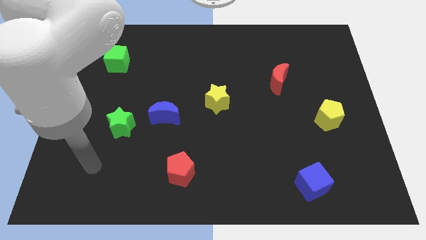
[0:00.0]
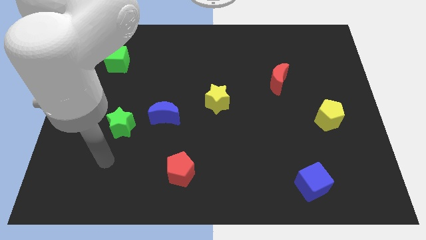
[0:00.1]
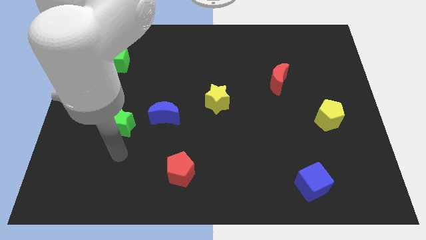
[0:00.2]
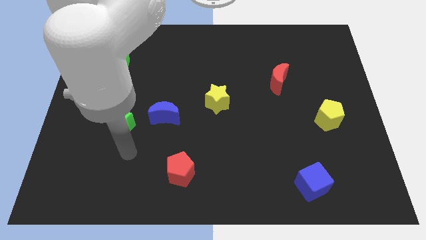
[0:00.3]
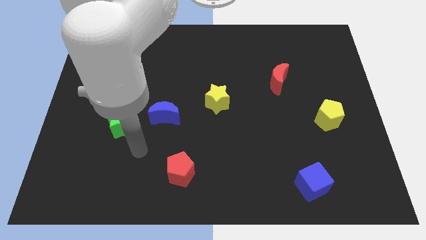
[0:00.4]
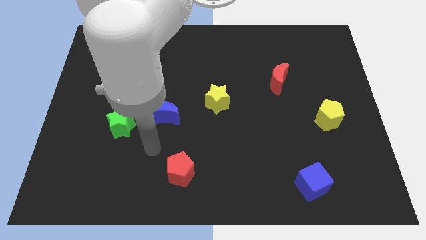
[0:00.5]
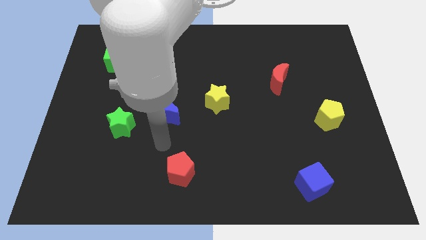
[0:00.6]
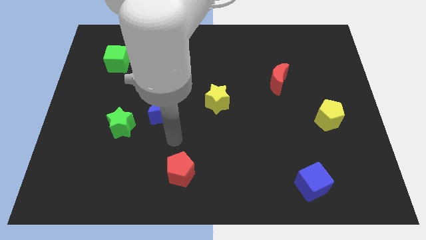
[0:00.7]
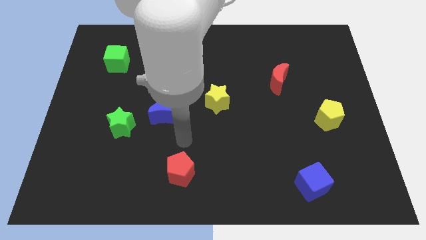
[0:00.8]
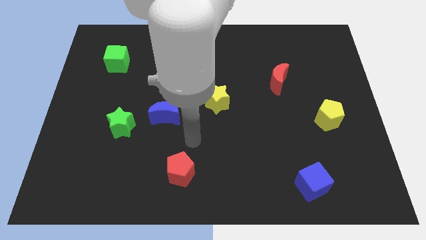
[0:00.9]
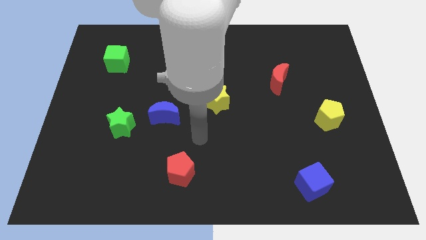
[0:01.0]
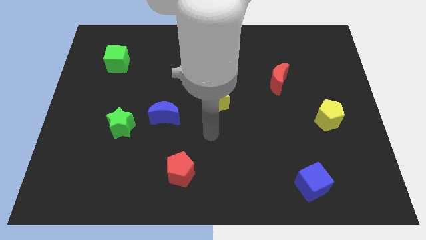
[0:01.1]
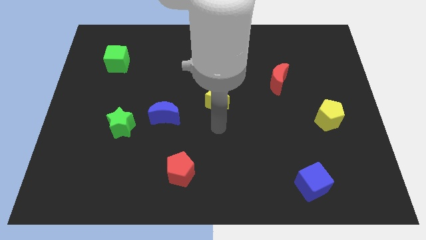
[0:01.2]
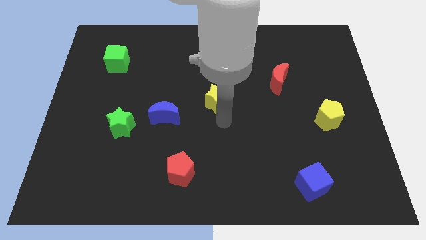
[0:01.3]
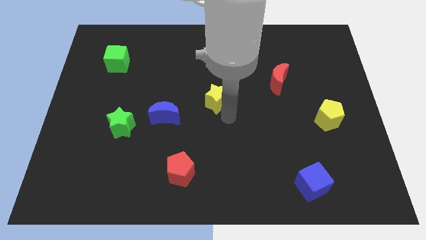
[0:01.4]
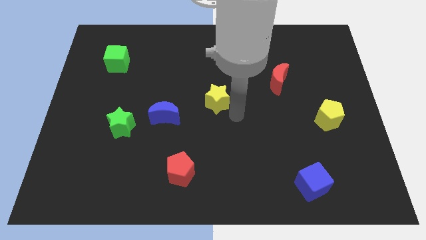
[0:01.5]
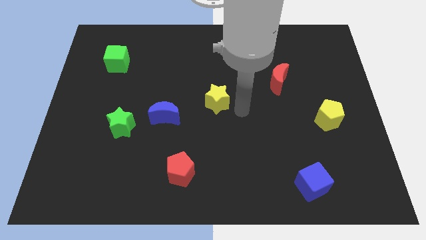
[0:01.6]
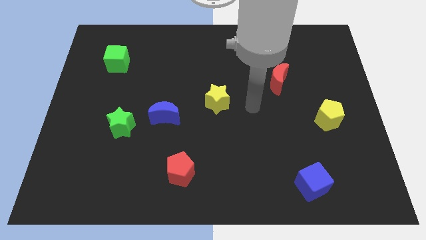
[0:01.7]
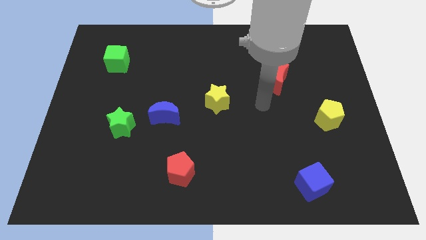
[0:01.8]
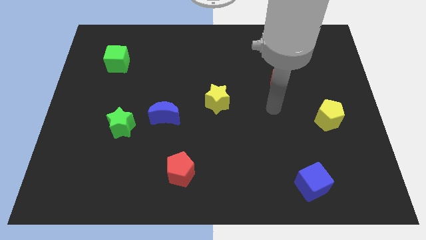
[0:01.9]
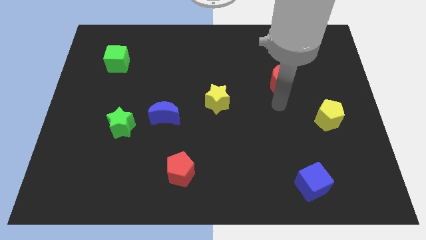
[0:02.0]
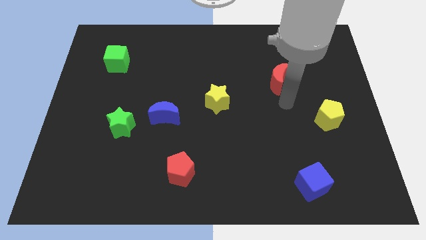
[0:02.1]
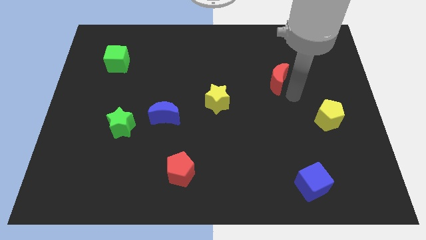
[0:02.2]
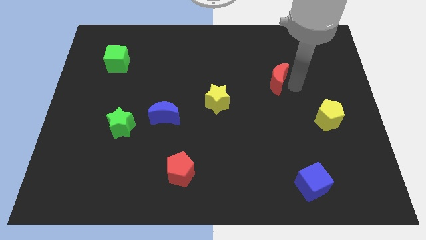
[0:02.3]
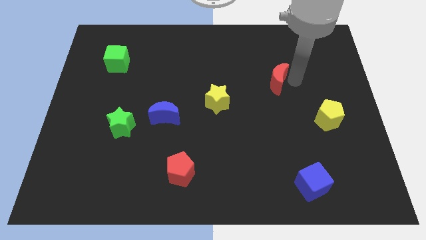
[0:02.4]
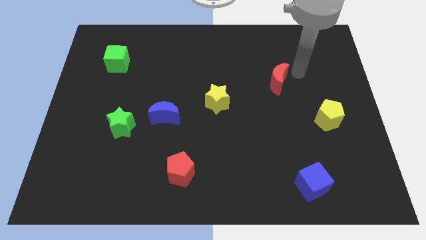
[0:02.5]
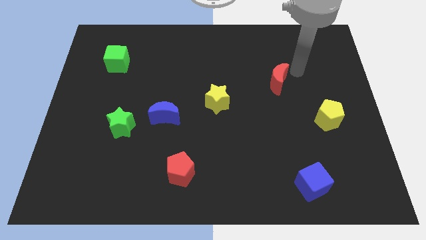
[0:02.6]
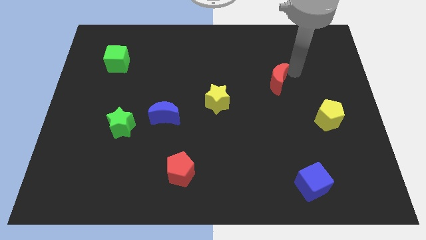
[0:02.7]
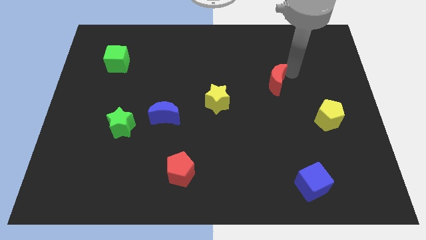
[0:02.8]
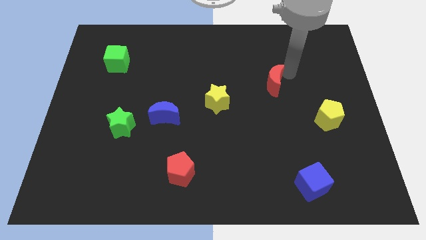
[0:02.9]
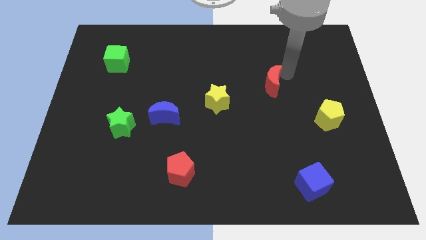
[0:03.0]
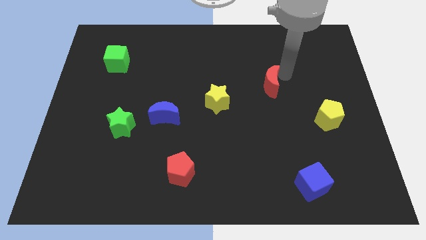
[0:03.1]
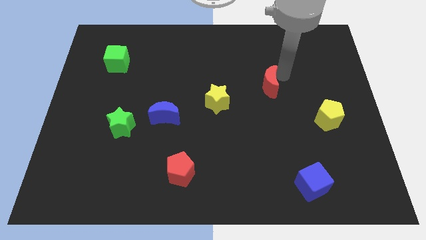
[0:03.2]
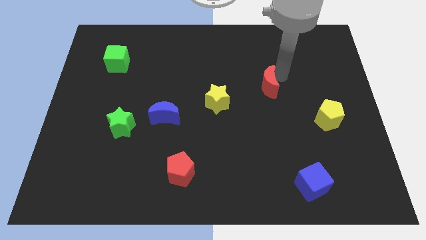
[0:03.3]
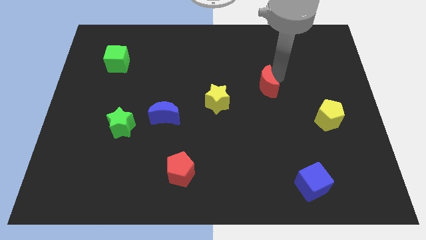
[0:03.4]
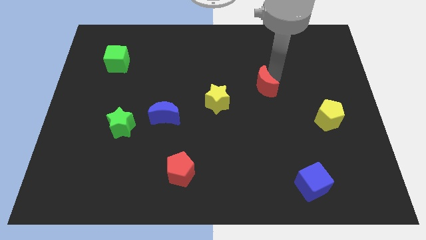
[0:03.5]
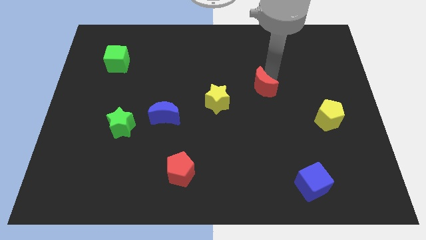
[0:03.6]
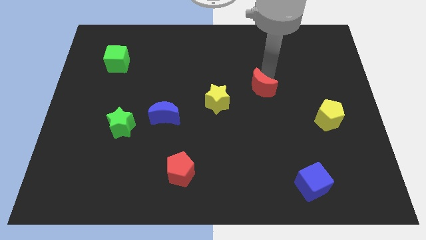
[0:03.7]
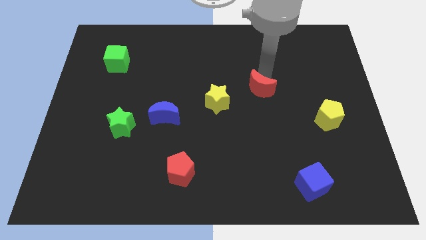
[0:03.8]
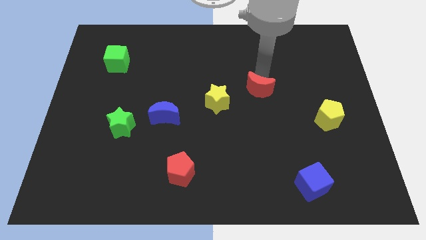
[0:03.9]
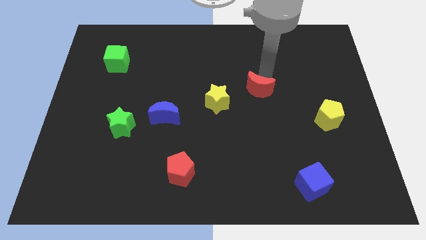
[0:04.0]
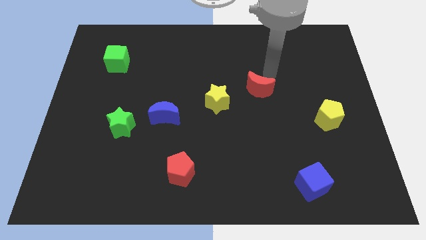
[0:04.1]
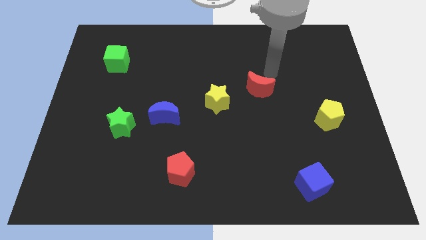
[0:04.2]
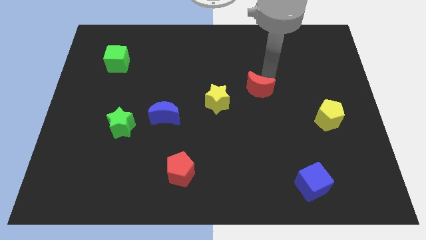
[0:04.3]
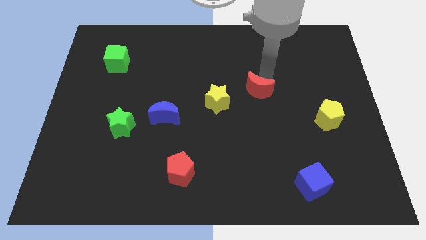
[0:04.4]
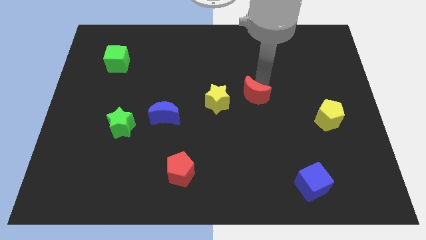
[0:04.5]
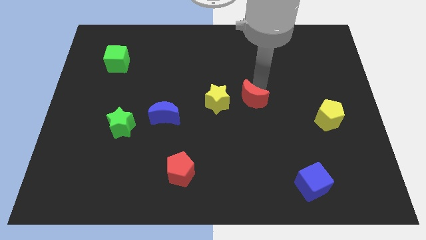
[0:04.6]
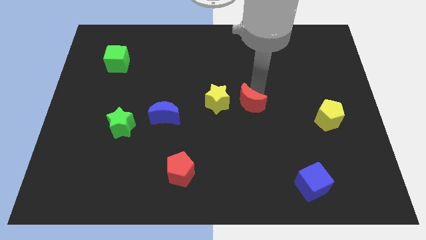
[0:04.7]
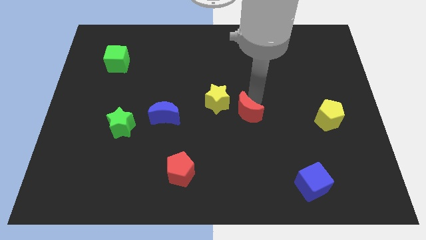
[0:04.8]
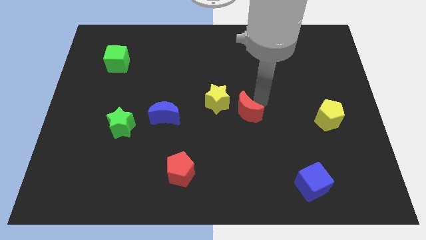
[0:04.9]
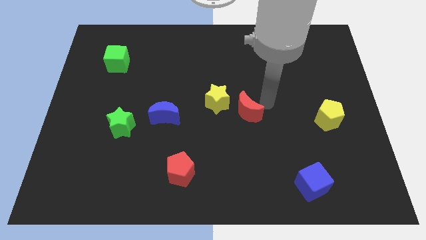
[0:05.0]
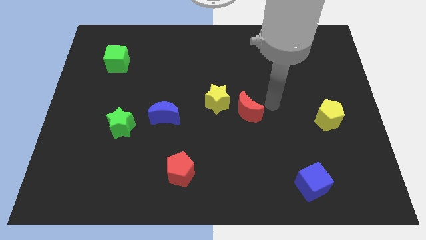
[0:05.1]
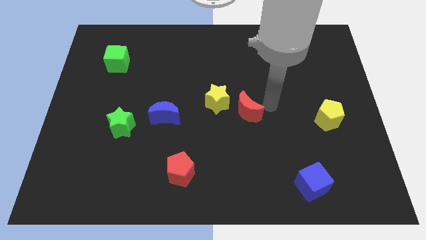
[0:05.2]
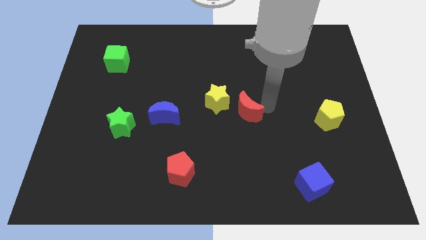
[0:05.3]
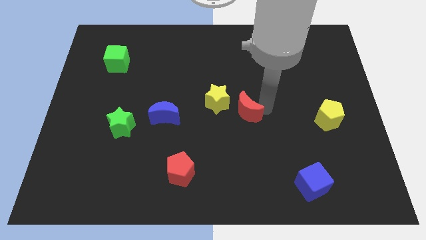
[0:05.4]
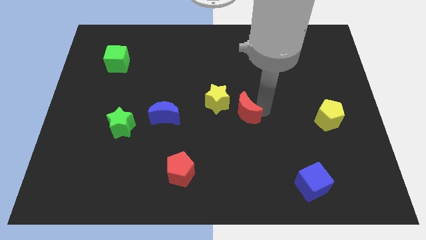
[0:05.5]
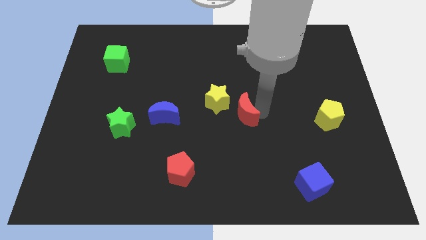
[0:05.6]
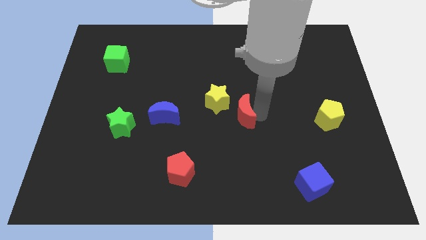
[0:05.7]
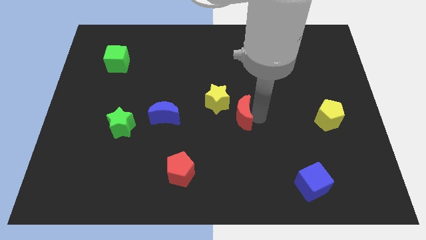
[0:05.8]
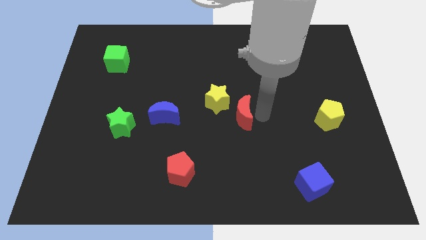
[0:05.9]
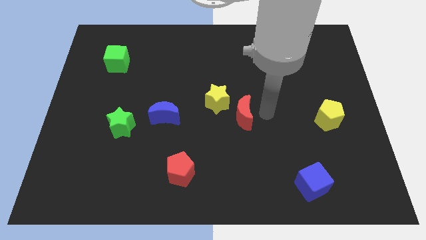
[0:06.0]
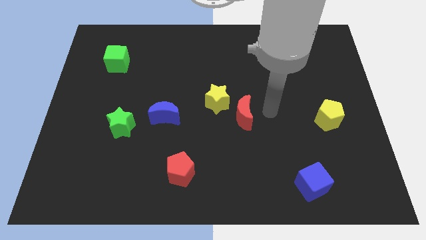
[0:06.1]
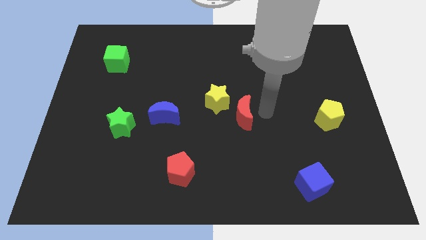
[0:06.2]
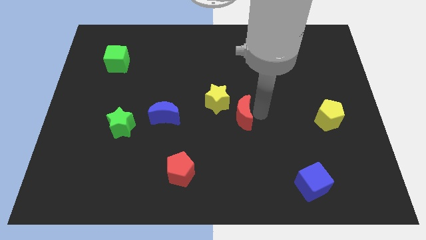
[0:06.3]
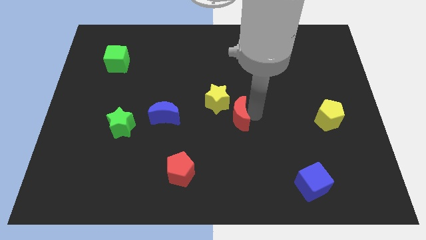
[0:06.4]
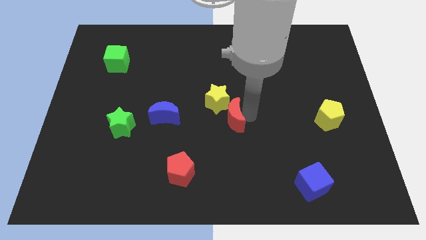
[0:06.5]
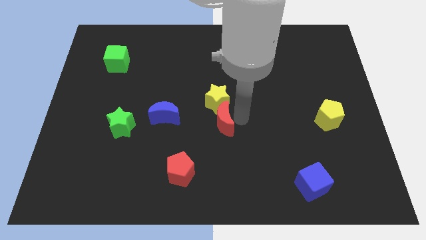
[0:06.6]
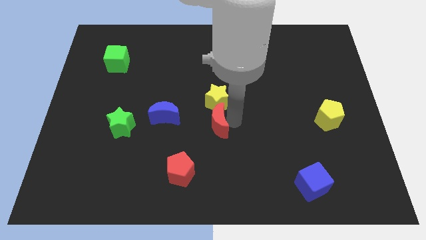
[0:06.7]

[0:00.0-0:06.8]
slide the red moon diagonally down and to the left of the yellow star

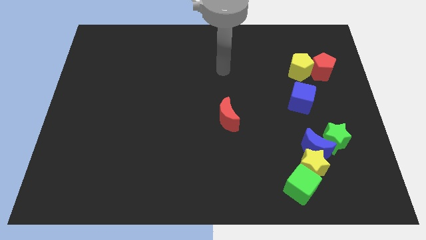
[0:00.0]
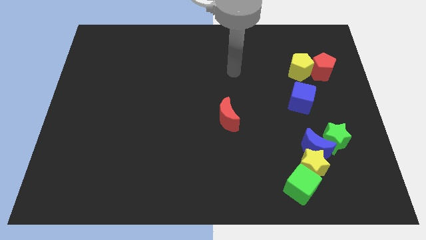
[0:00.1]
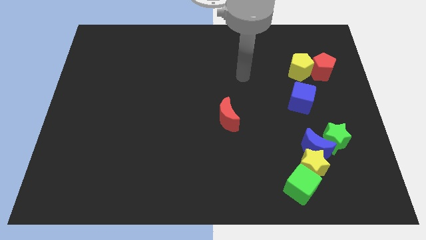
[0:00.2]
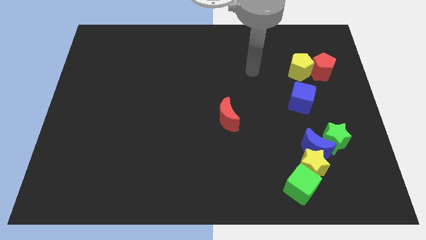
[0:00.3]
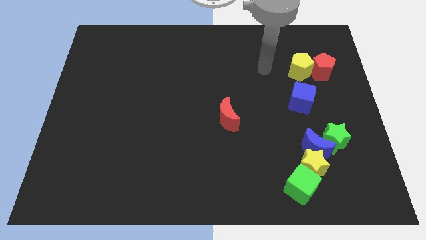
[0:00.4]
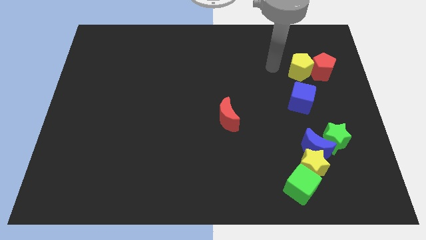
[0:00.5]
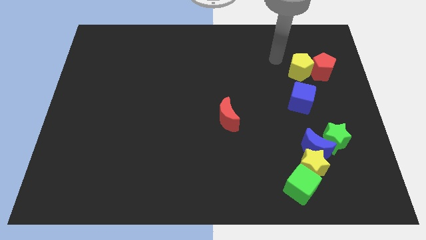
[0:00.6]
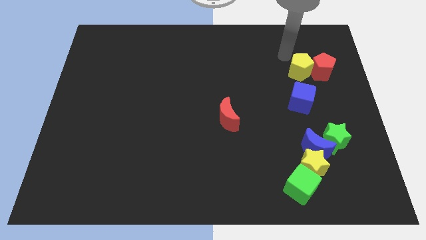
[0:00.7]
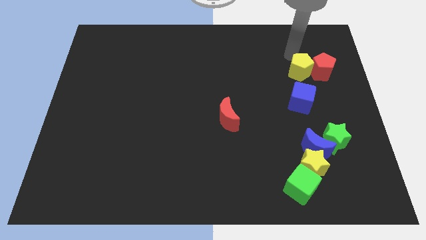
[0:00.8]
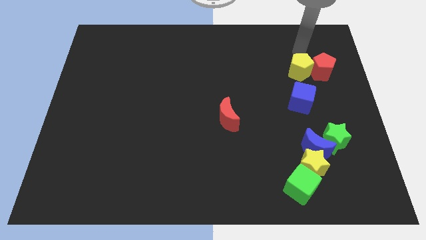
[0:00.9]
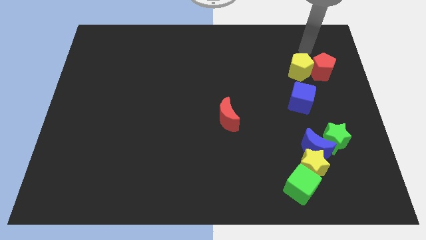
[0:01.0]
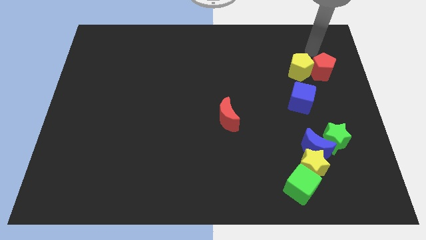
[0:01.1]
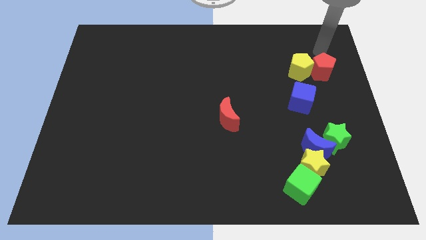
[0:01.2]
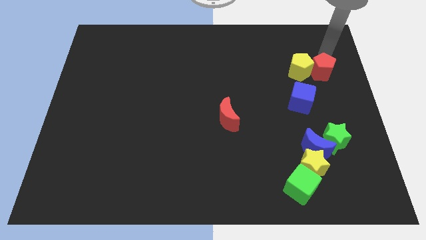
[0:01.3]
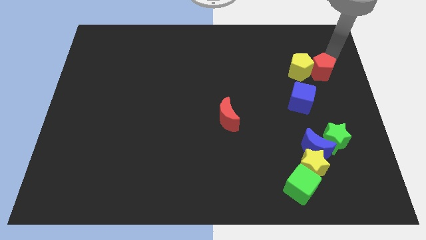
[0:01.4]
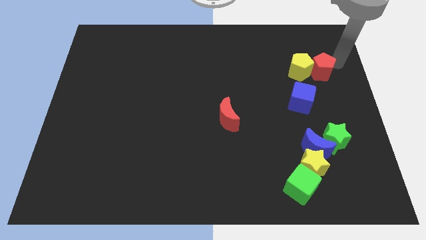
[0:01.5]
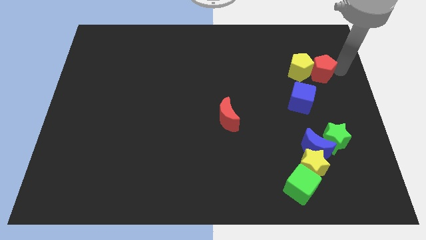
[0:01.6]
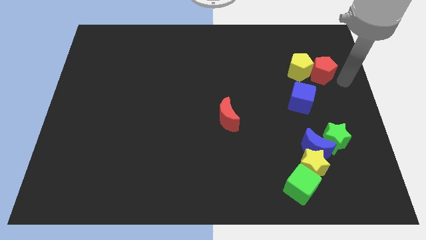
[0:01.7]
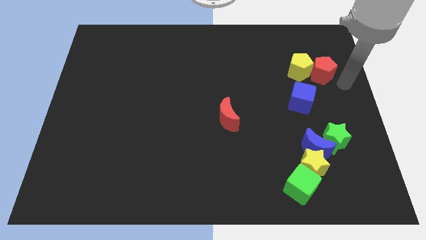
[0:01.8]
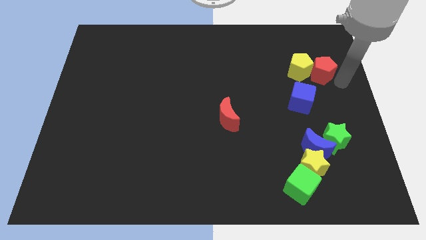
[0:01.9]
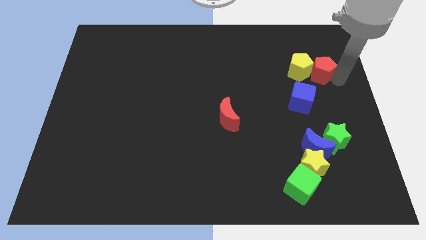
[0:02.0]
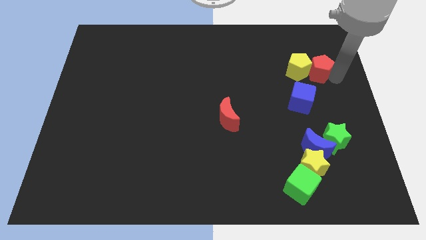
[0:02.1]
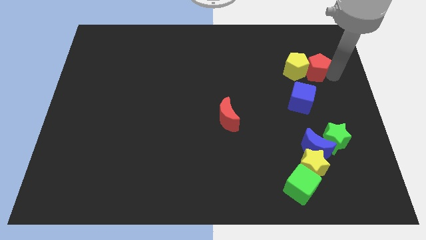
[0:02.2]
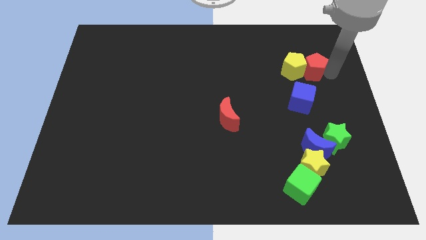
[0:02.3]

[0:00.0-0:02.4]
slide the red pentagon above the blue cube
